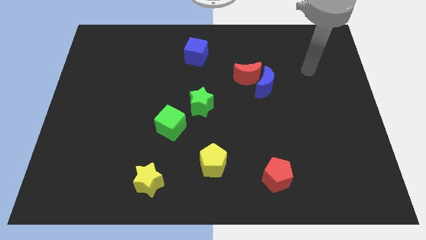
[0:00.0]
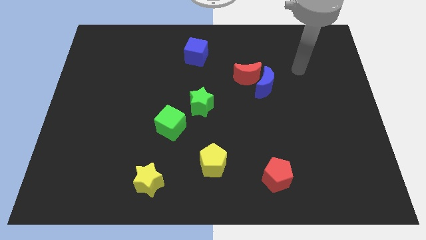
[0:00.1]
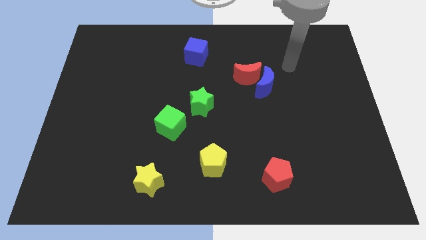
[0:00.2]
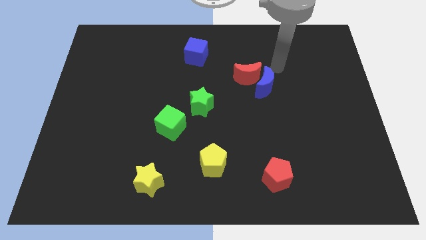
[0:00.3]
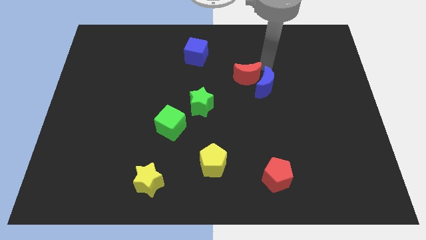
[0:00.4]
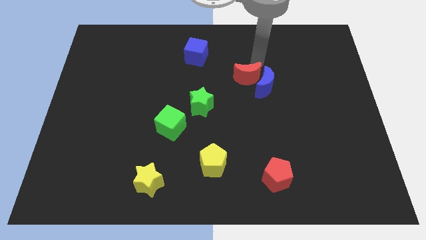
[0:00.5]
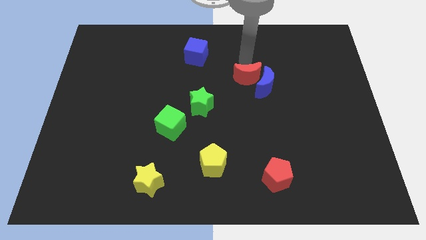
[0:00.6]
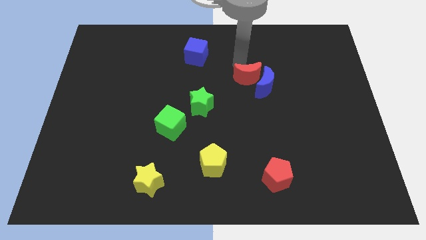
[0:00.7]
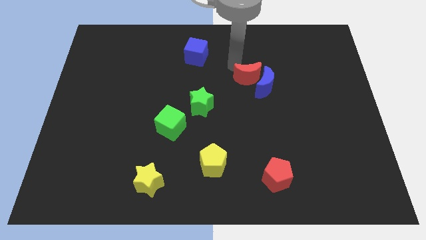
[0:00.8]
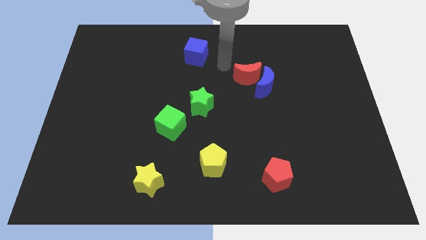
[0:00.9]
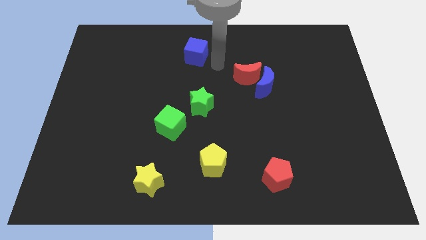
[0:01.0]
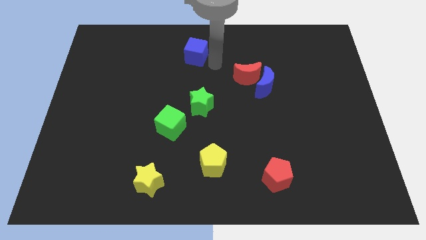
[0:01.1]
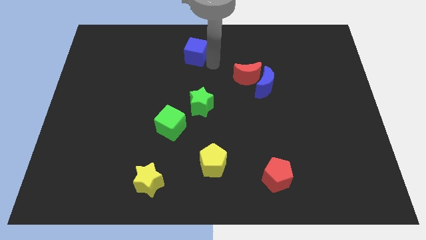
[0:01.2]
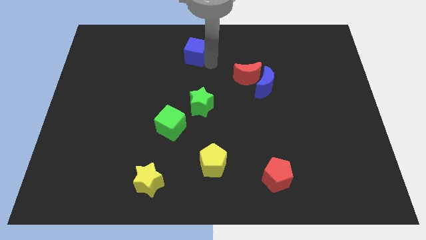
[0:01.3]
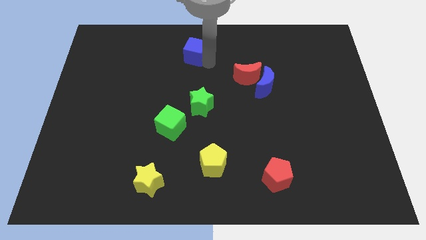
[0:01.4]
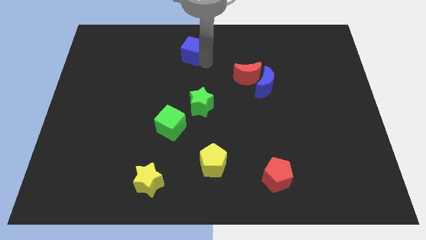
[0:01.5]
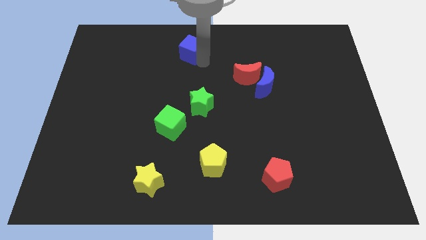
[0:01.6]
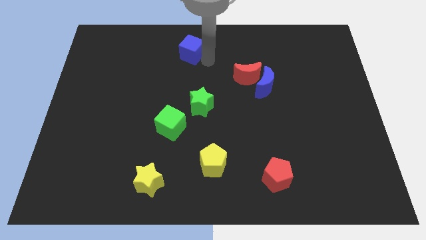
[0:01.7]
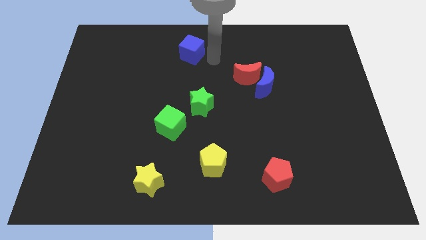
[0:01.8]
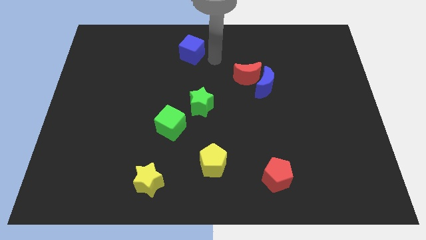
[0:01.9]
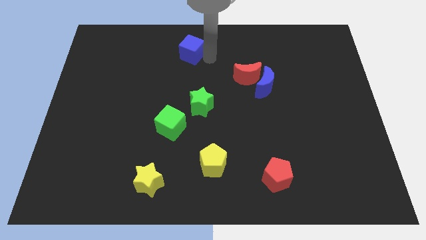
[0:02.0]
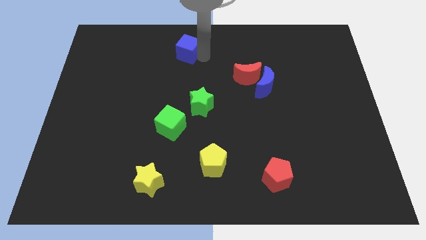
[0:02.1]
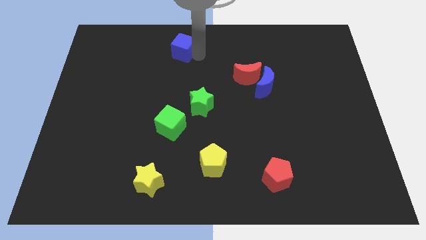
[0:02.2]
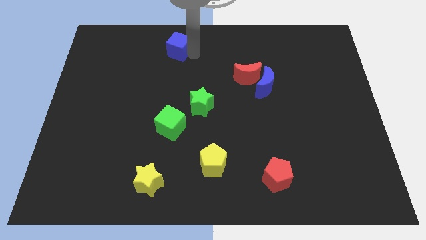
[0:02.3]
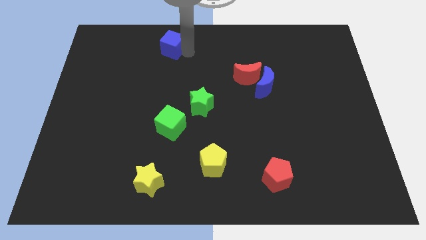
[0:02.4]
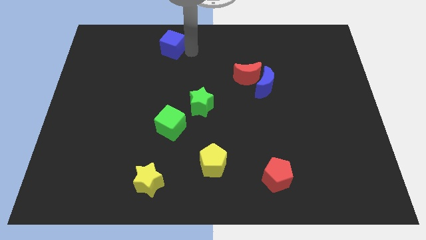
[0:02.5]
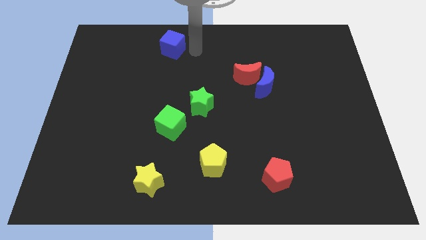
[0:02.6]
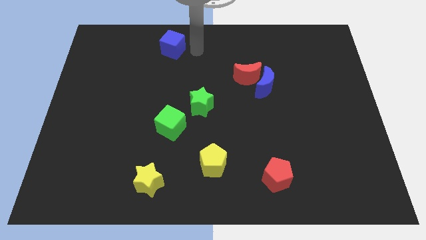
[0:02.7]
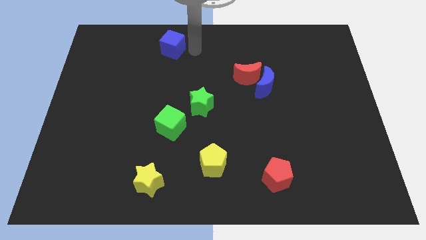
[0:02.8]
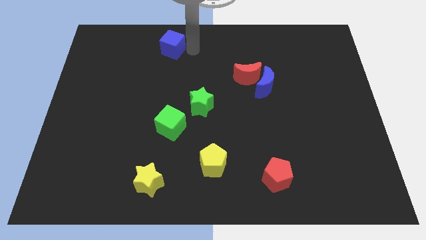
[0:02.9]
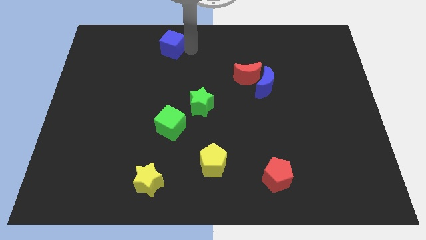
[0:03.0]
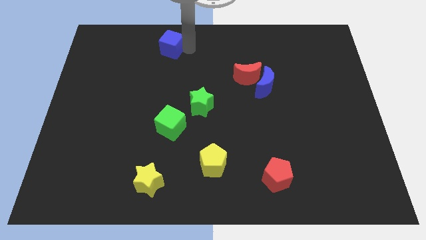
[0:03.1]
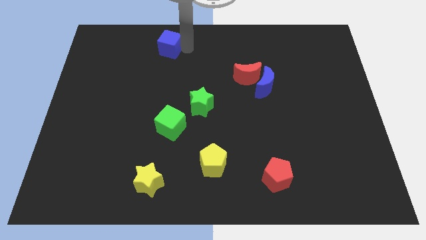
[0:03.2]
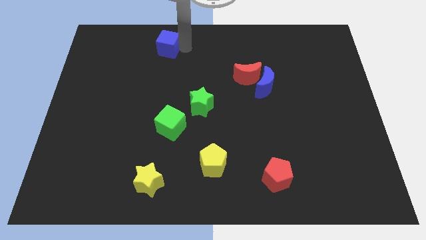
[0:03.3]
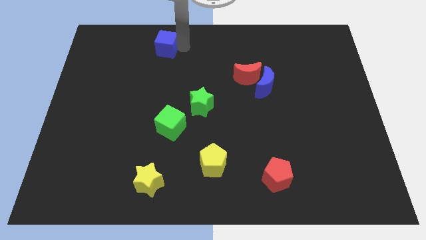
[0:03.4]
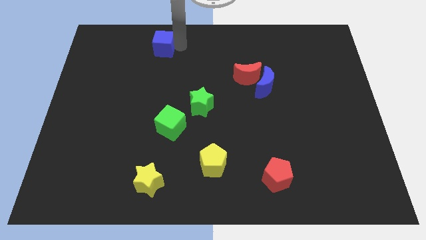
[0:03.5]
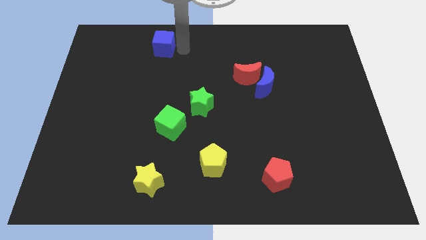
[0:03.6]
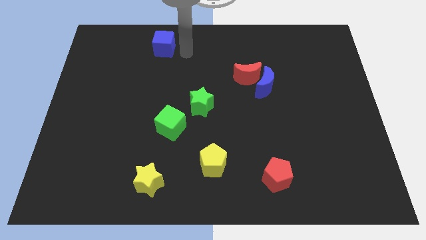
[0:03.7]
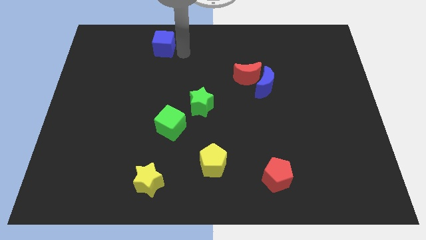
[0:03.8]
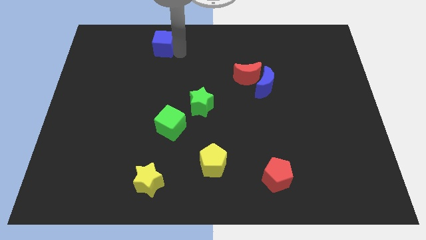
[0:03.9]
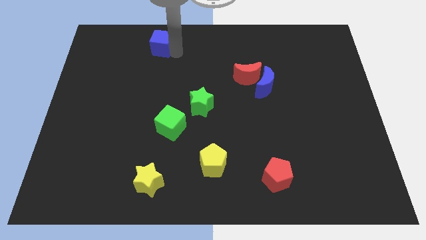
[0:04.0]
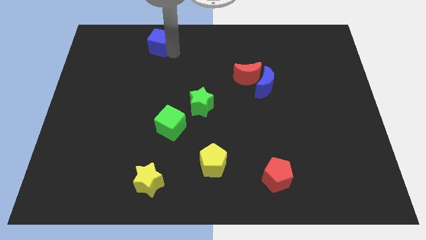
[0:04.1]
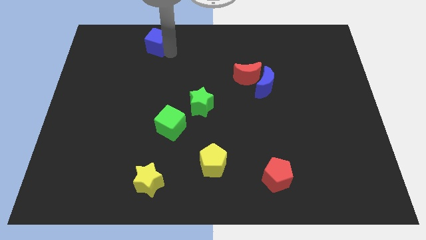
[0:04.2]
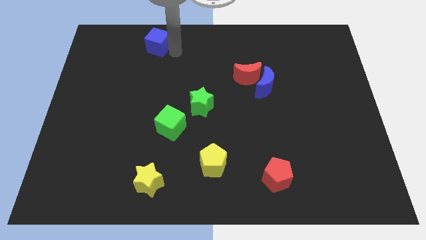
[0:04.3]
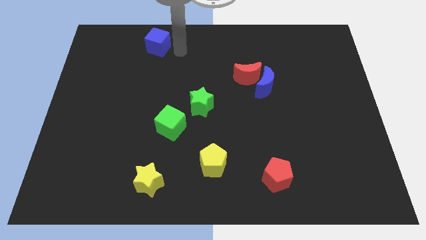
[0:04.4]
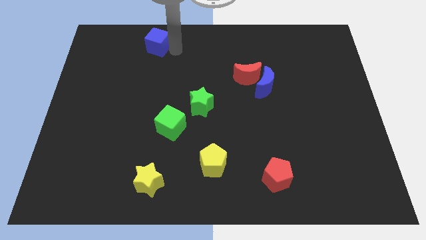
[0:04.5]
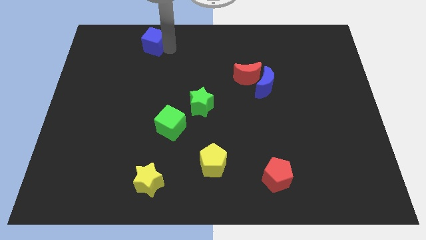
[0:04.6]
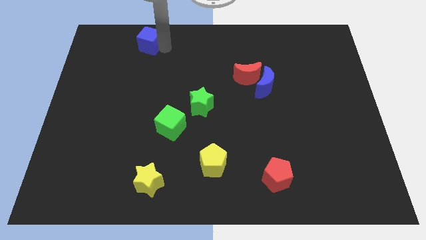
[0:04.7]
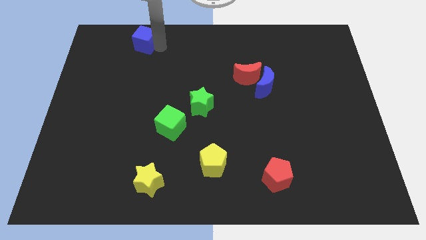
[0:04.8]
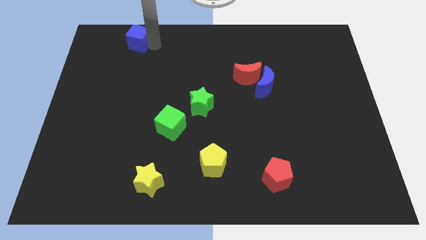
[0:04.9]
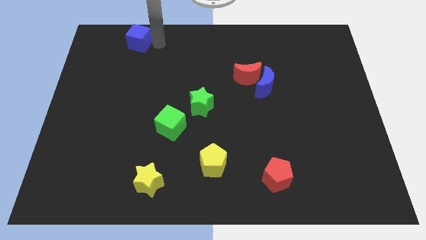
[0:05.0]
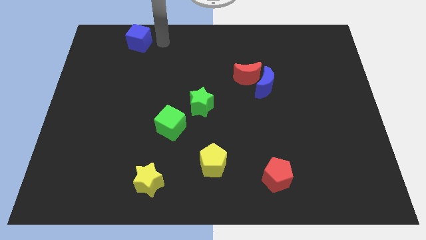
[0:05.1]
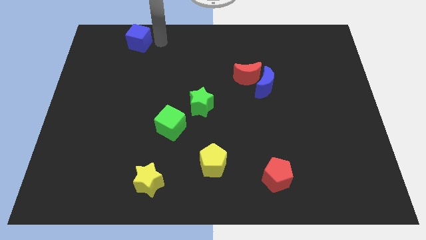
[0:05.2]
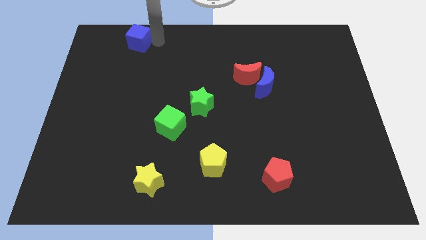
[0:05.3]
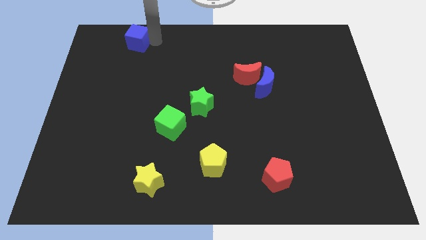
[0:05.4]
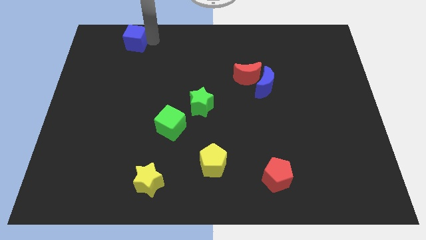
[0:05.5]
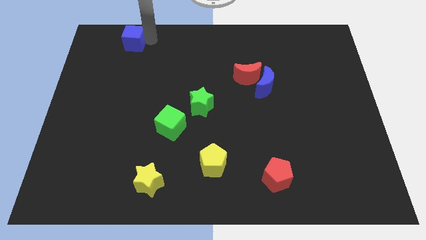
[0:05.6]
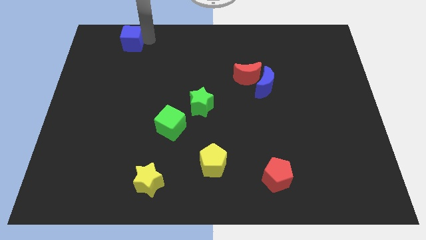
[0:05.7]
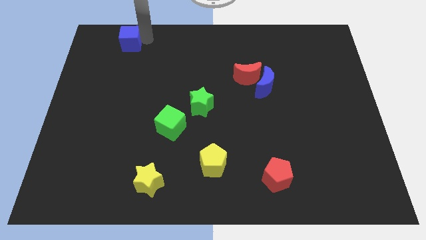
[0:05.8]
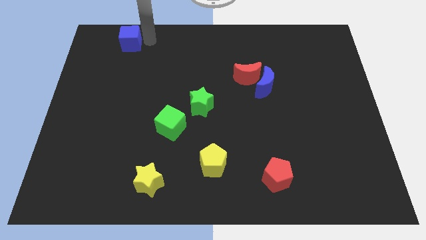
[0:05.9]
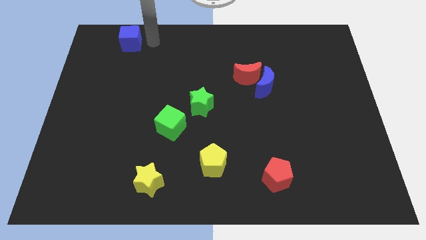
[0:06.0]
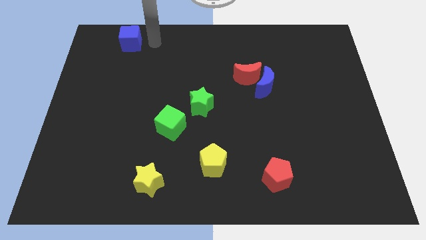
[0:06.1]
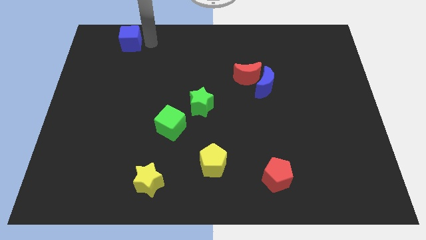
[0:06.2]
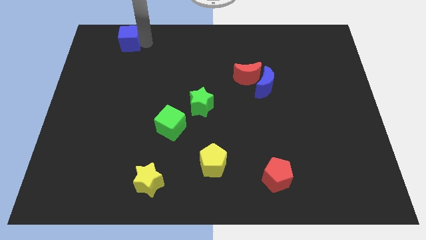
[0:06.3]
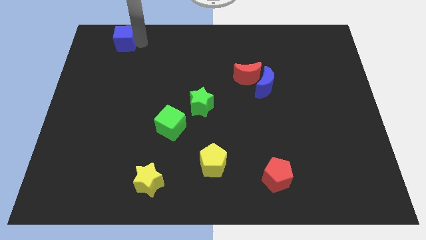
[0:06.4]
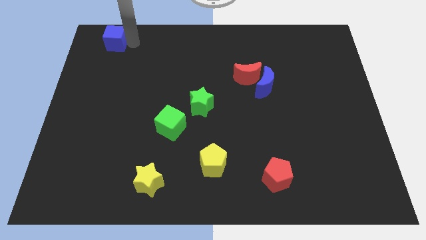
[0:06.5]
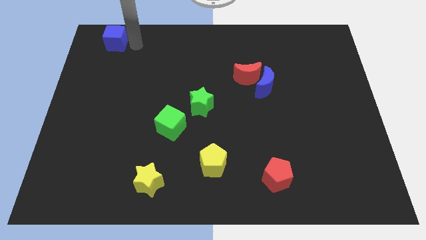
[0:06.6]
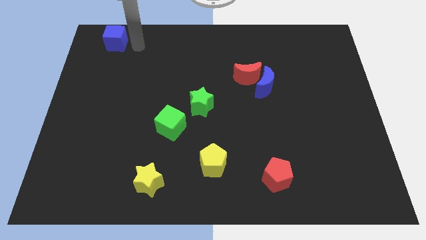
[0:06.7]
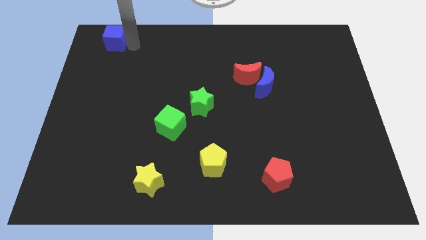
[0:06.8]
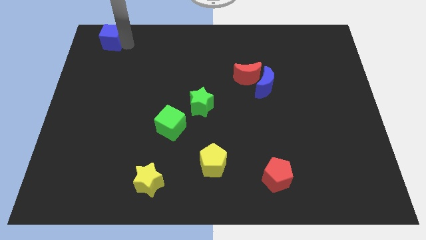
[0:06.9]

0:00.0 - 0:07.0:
put the blue cube to the upper left corner
